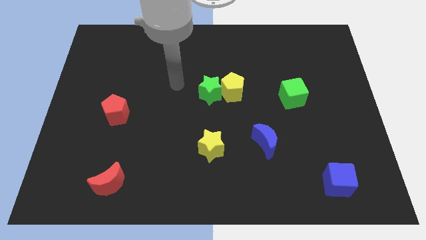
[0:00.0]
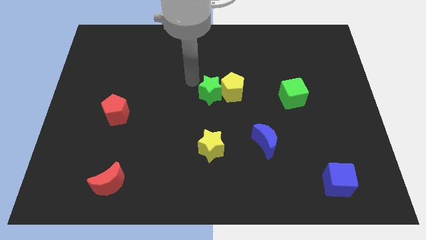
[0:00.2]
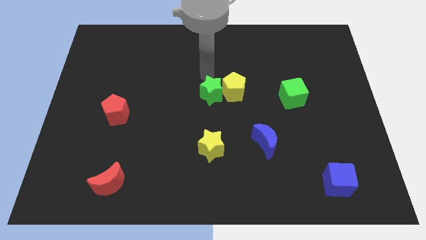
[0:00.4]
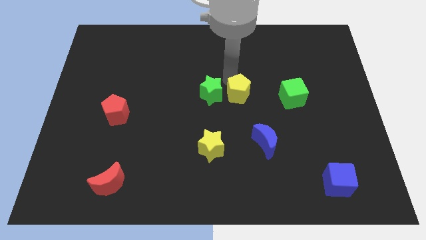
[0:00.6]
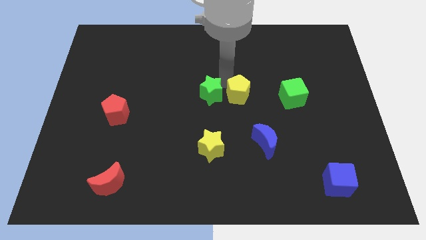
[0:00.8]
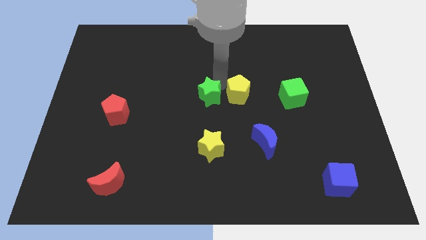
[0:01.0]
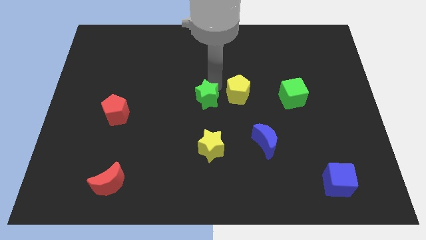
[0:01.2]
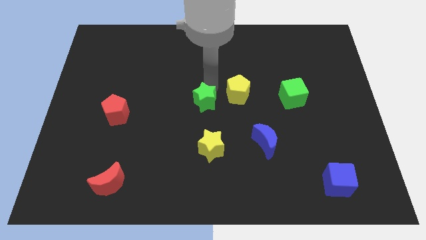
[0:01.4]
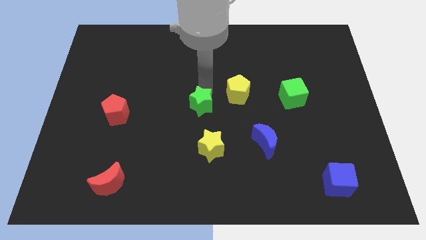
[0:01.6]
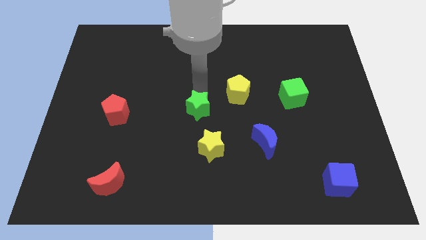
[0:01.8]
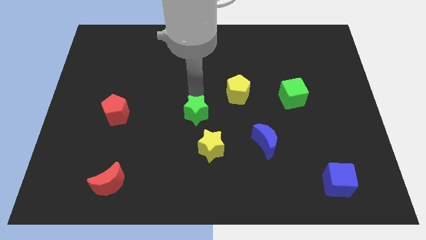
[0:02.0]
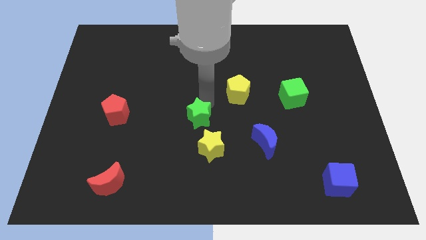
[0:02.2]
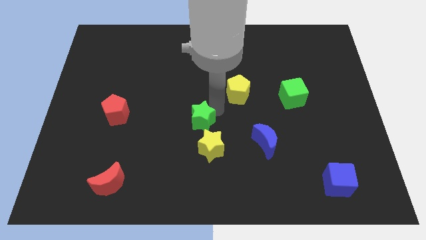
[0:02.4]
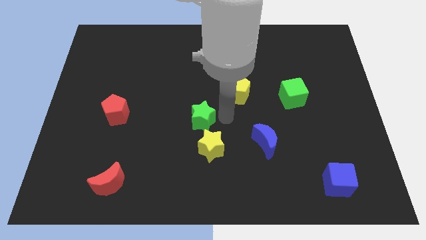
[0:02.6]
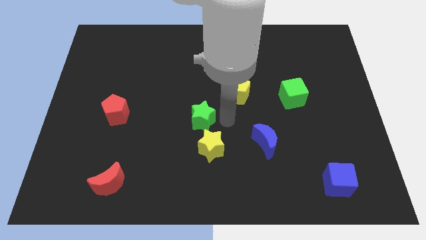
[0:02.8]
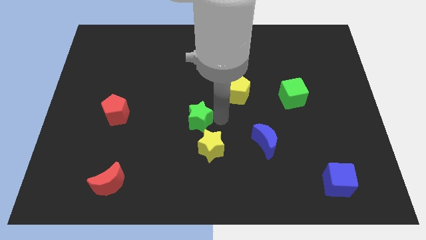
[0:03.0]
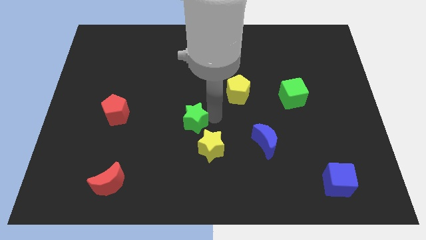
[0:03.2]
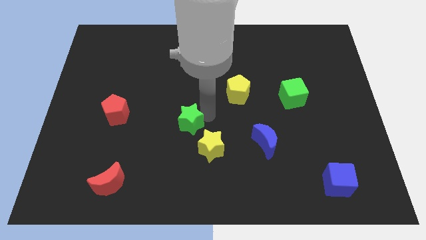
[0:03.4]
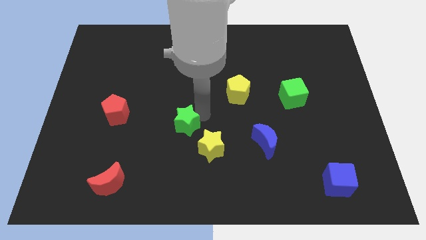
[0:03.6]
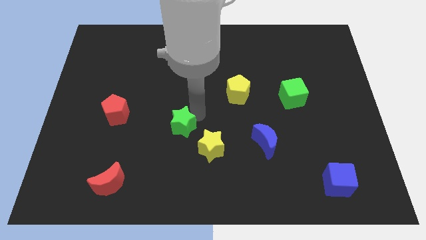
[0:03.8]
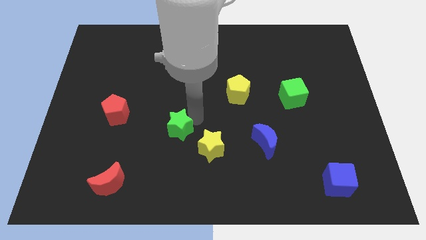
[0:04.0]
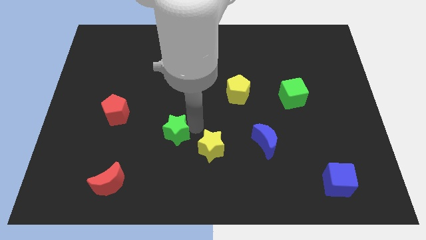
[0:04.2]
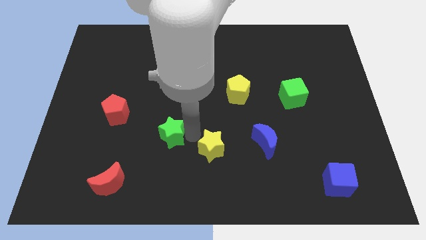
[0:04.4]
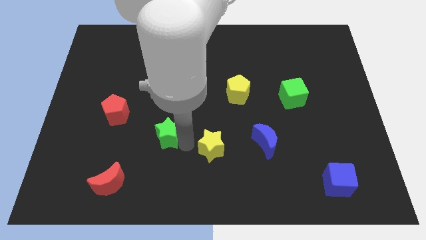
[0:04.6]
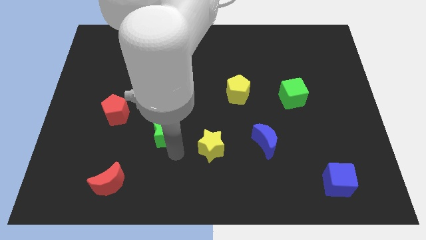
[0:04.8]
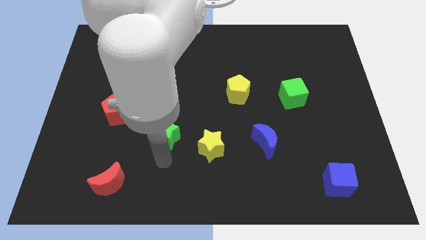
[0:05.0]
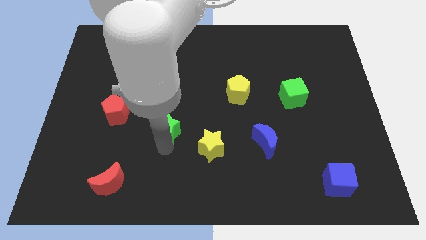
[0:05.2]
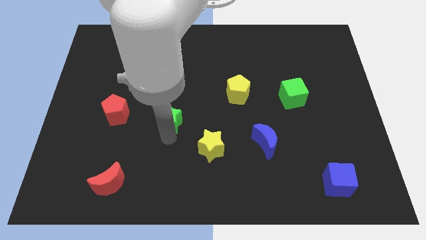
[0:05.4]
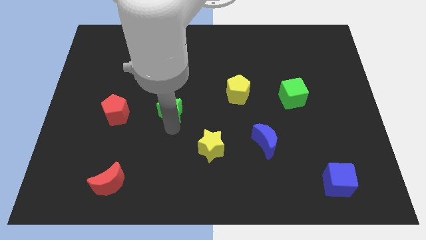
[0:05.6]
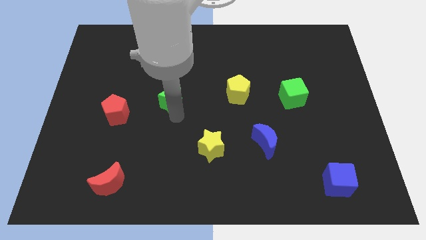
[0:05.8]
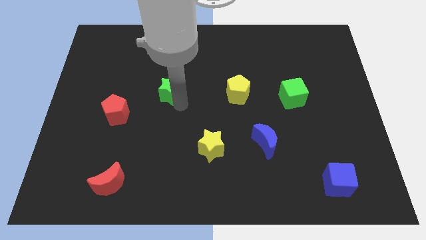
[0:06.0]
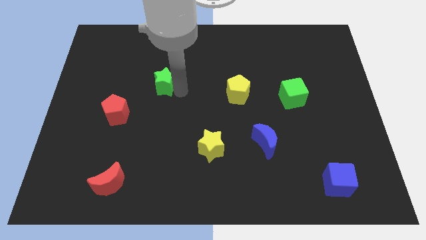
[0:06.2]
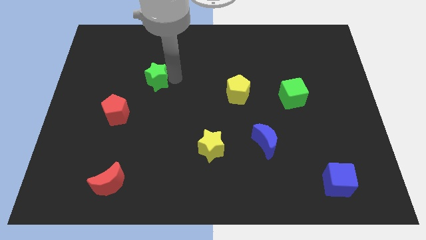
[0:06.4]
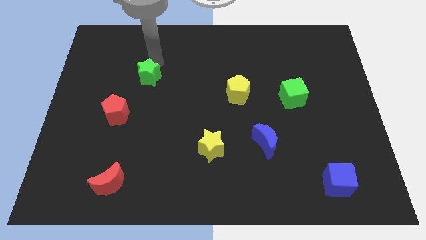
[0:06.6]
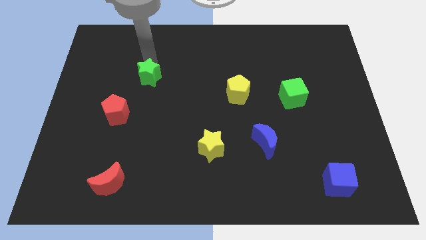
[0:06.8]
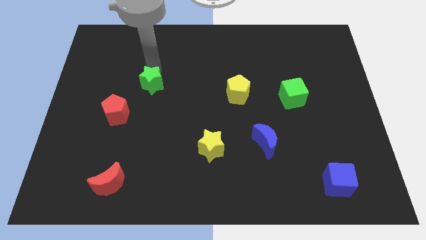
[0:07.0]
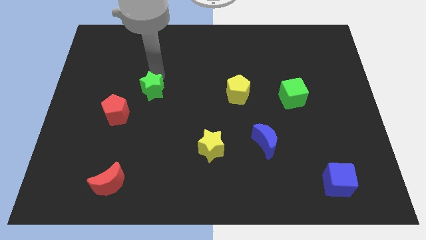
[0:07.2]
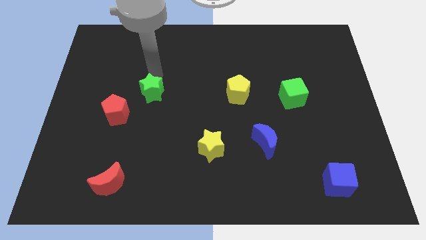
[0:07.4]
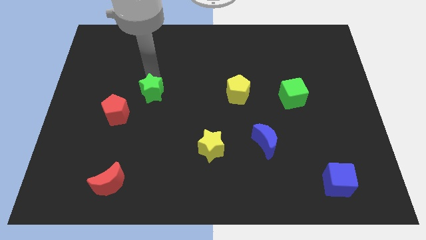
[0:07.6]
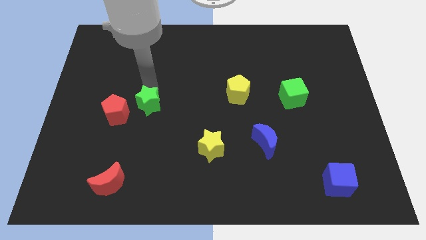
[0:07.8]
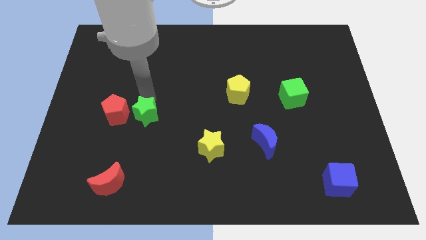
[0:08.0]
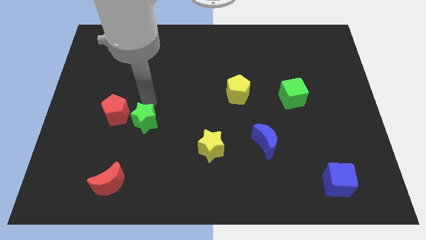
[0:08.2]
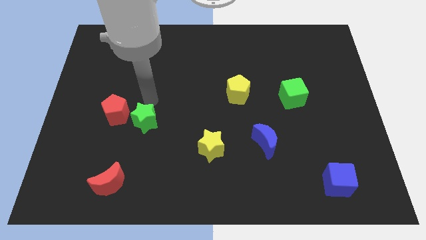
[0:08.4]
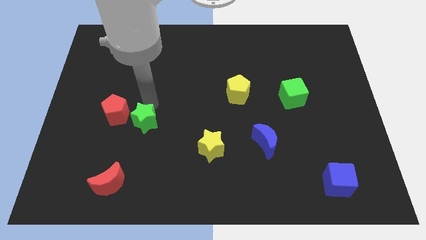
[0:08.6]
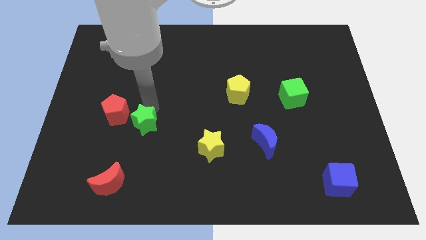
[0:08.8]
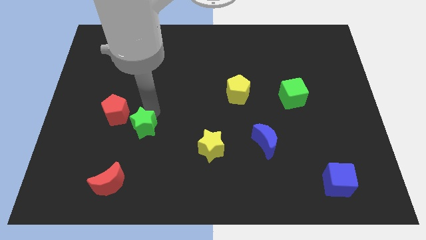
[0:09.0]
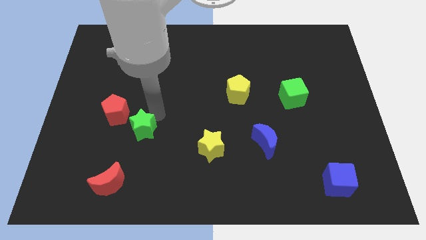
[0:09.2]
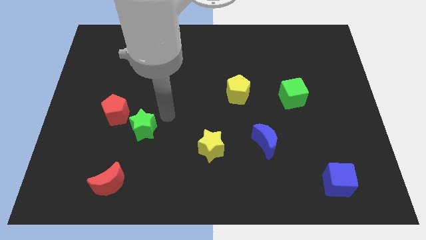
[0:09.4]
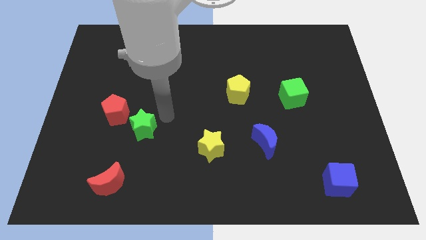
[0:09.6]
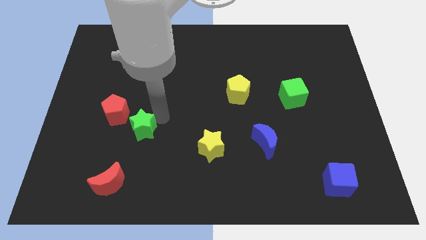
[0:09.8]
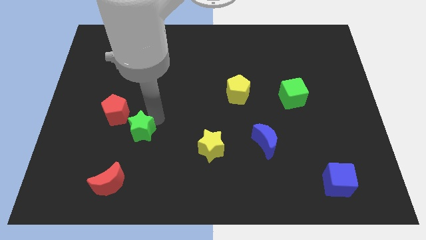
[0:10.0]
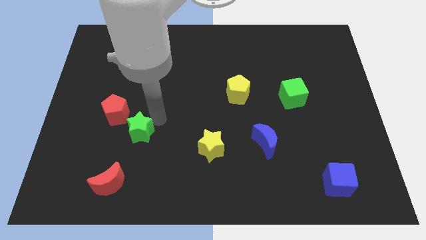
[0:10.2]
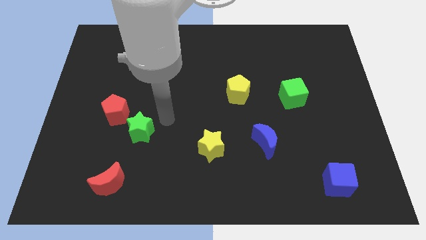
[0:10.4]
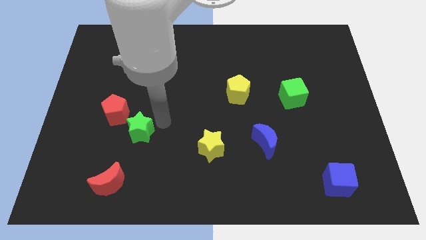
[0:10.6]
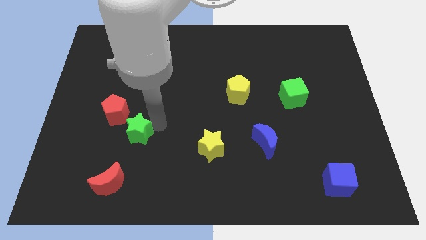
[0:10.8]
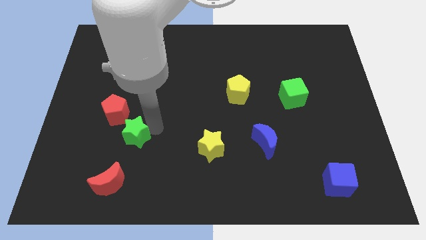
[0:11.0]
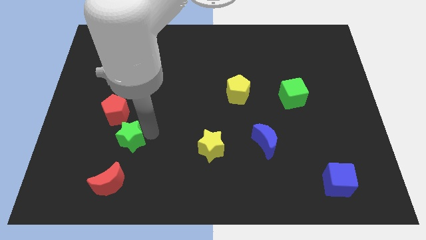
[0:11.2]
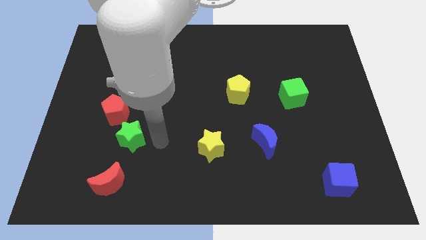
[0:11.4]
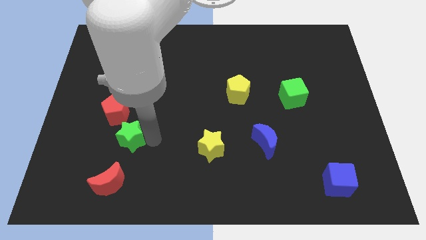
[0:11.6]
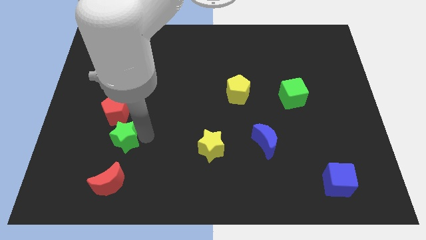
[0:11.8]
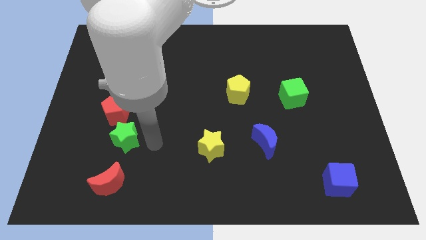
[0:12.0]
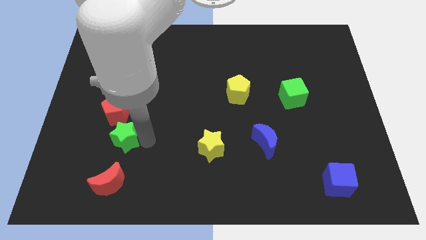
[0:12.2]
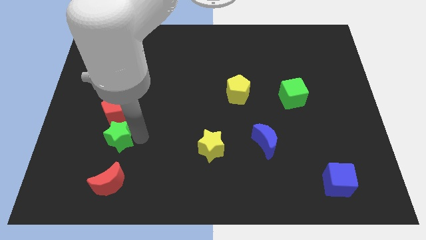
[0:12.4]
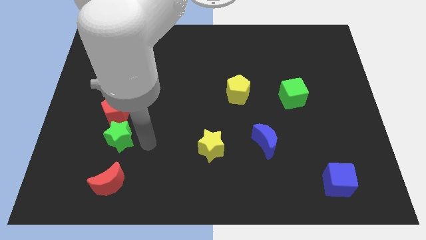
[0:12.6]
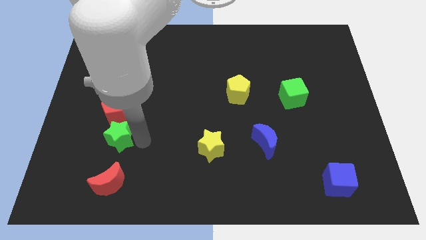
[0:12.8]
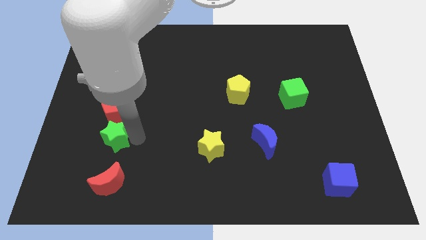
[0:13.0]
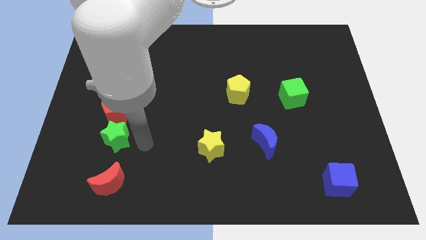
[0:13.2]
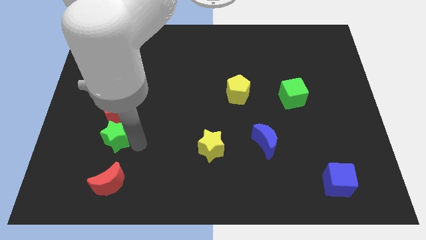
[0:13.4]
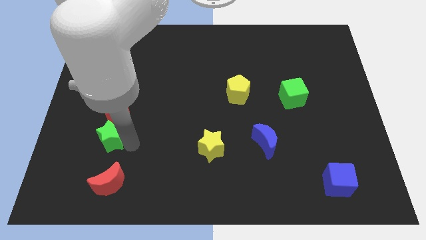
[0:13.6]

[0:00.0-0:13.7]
slide the green star to the bottom left of the red pentagon

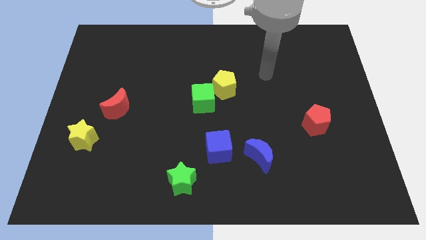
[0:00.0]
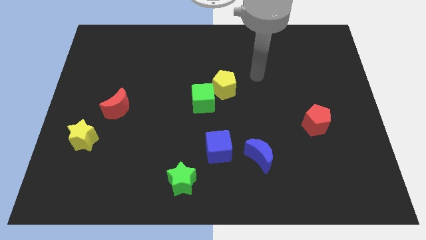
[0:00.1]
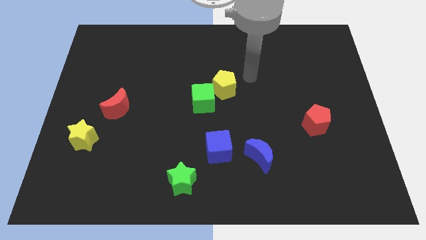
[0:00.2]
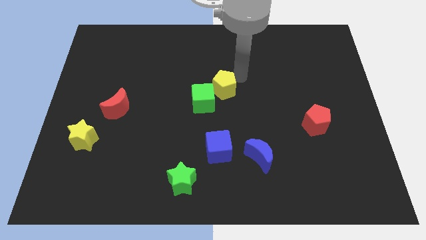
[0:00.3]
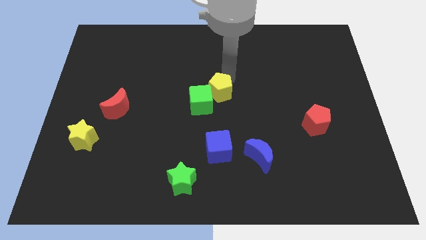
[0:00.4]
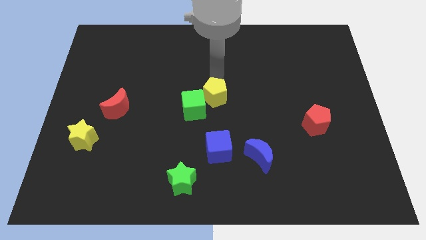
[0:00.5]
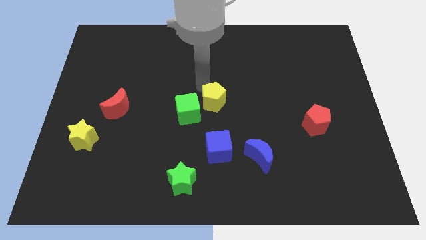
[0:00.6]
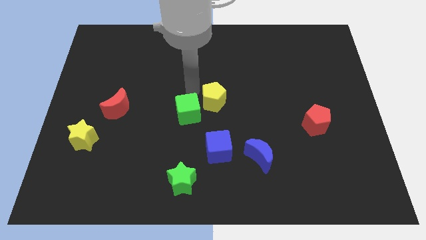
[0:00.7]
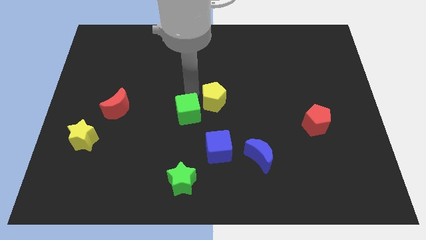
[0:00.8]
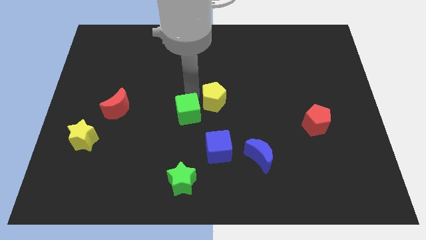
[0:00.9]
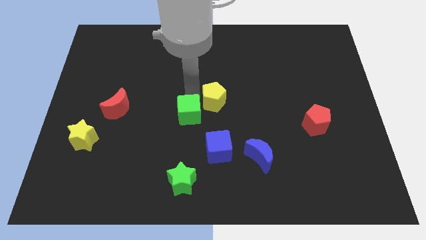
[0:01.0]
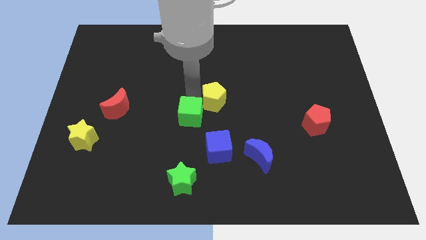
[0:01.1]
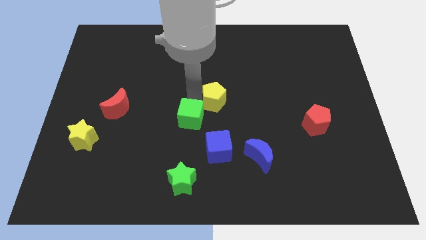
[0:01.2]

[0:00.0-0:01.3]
push the green cube to the top side of the green star
